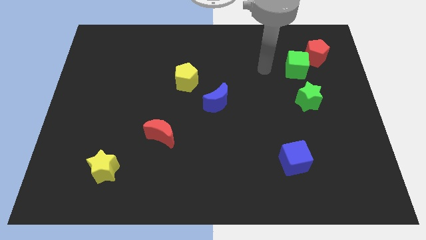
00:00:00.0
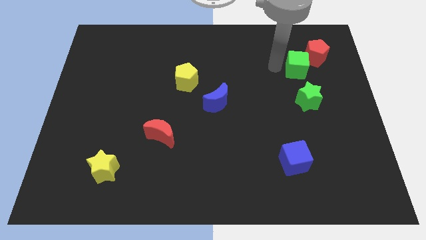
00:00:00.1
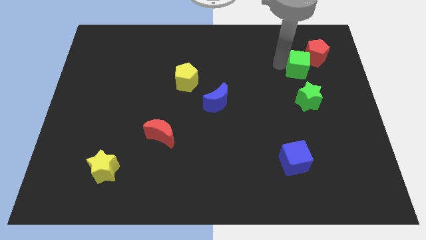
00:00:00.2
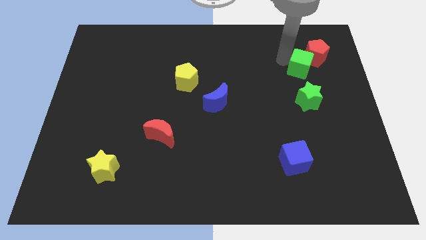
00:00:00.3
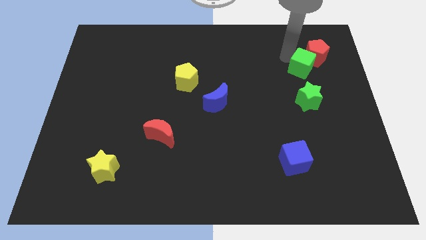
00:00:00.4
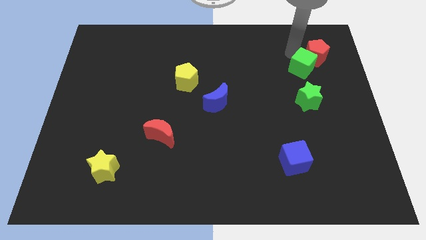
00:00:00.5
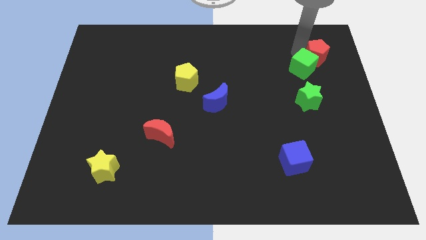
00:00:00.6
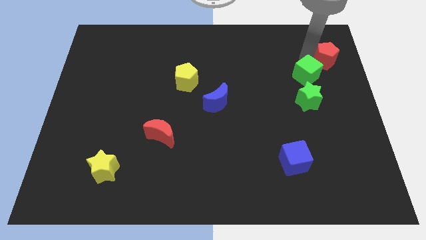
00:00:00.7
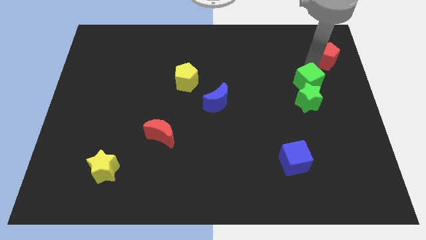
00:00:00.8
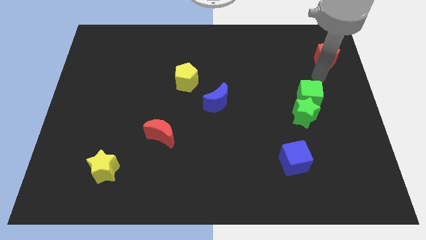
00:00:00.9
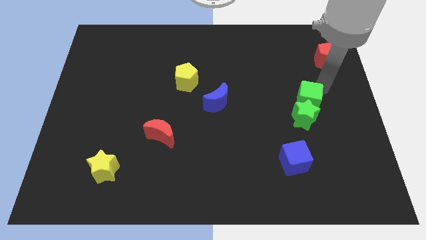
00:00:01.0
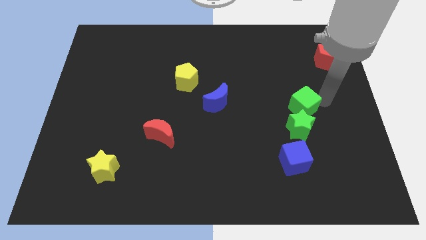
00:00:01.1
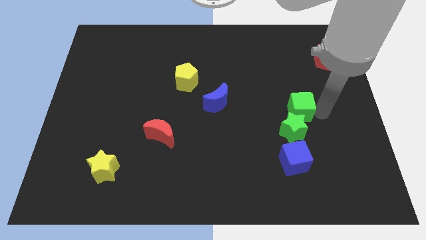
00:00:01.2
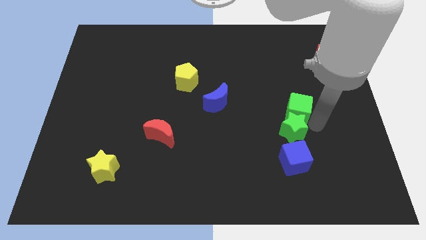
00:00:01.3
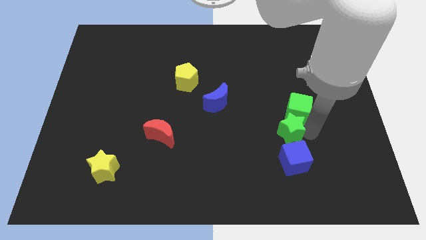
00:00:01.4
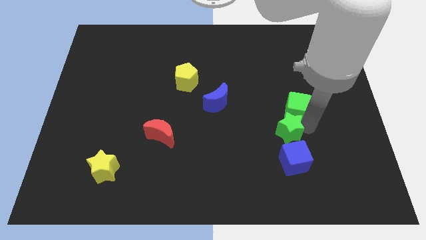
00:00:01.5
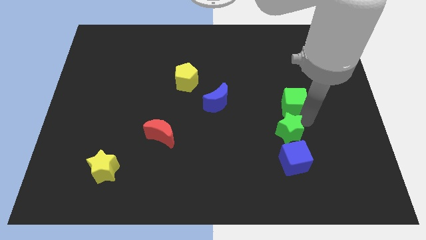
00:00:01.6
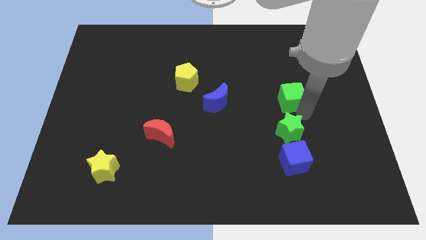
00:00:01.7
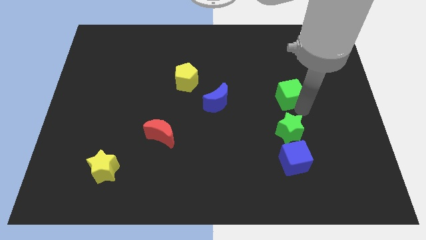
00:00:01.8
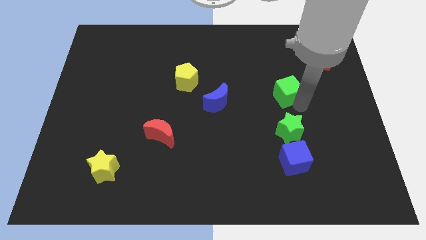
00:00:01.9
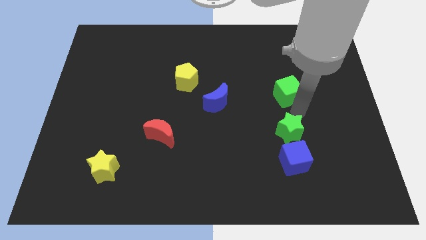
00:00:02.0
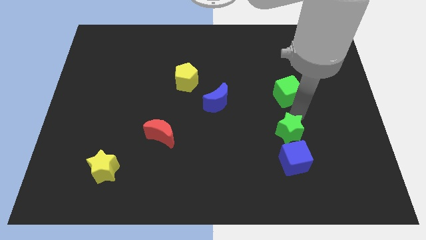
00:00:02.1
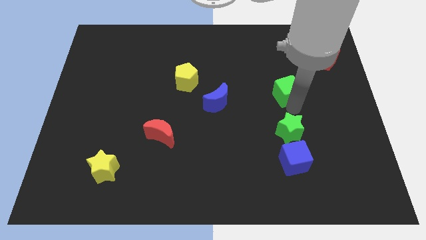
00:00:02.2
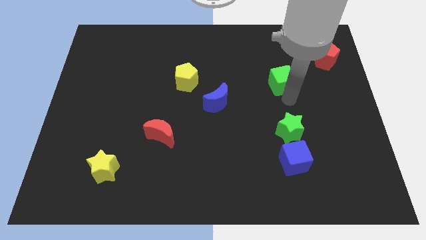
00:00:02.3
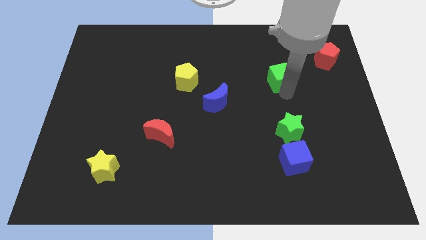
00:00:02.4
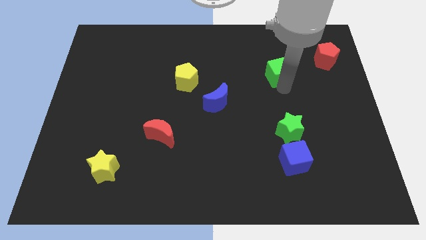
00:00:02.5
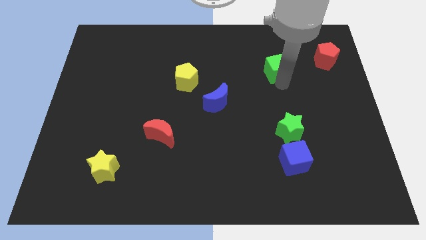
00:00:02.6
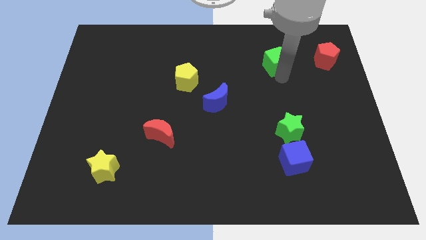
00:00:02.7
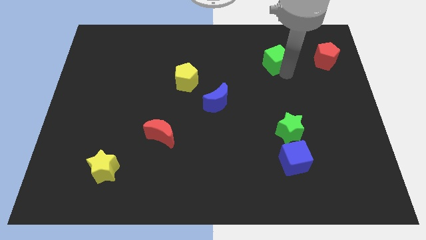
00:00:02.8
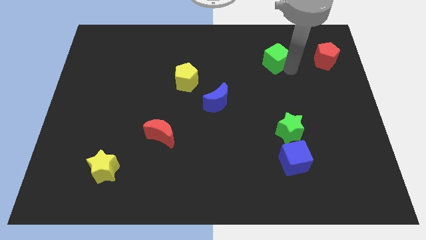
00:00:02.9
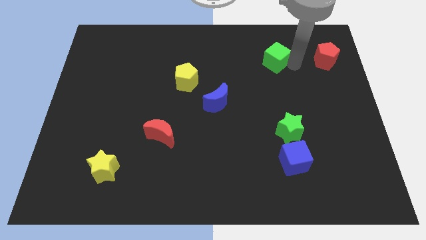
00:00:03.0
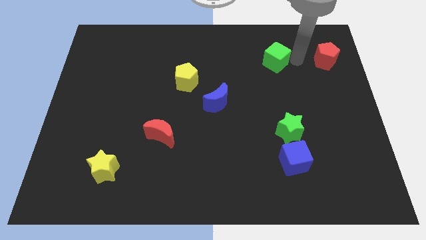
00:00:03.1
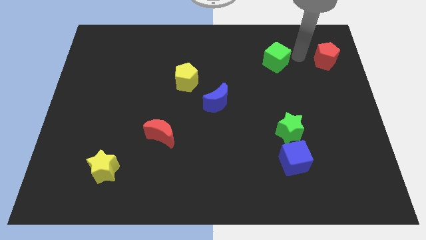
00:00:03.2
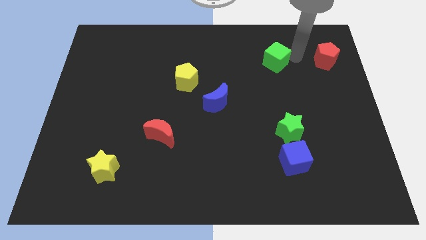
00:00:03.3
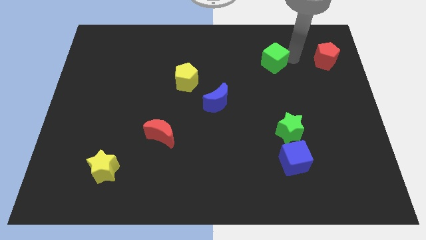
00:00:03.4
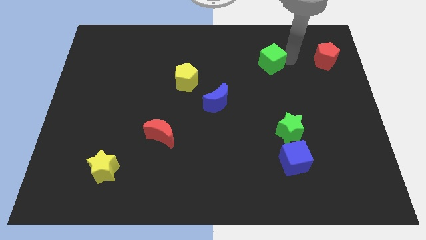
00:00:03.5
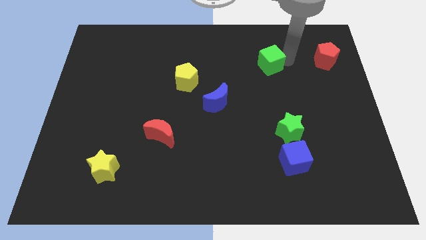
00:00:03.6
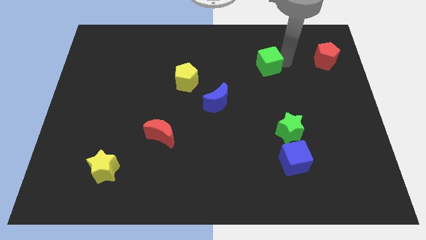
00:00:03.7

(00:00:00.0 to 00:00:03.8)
slightly slide the green cube to the left

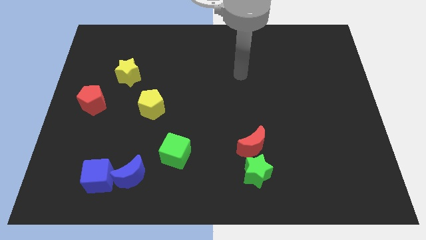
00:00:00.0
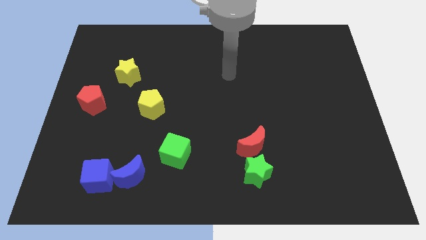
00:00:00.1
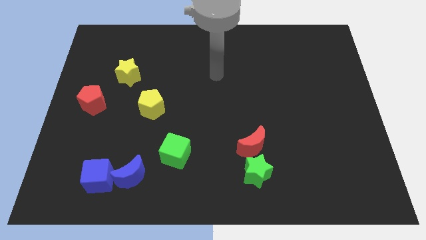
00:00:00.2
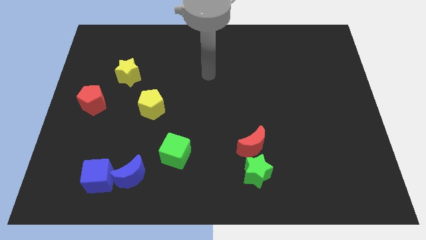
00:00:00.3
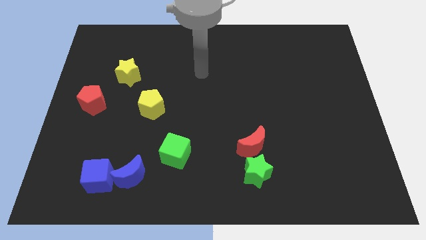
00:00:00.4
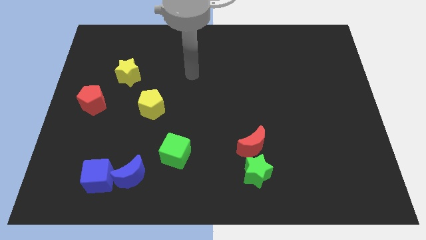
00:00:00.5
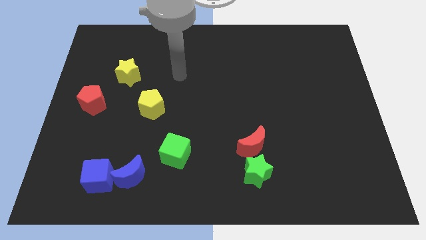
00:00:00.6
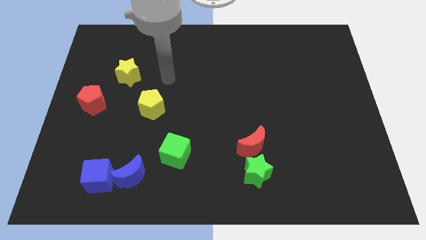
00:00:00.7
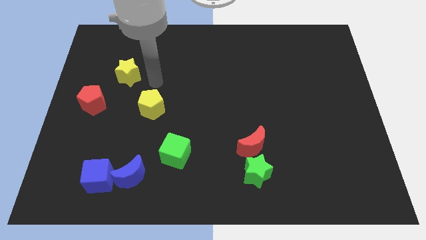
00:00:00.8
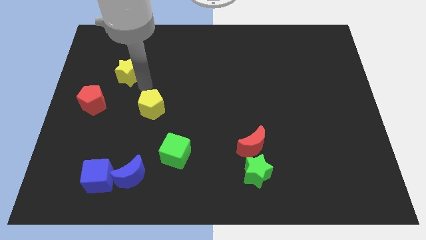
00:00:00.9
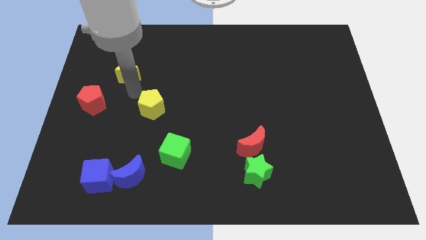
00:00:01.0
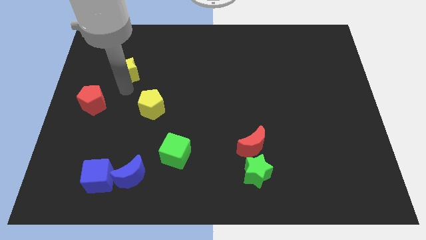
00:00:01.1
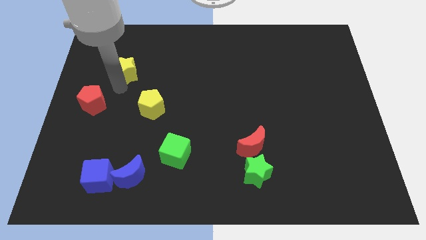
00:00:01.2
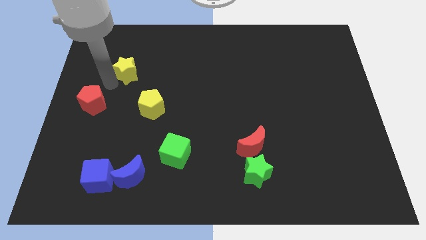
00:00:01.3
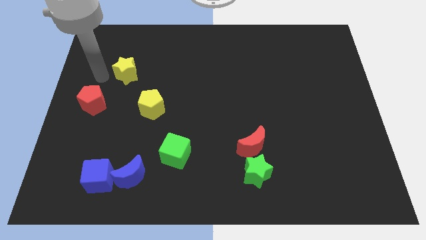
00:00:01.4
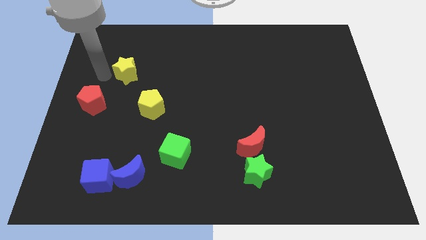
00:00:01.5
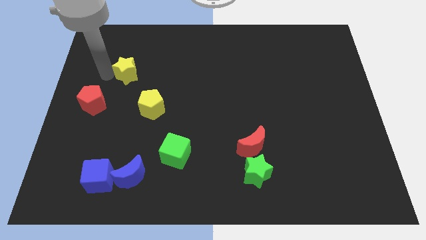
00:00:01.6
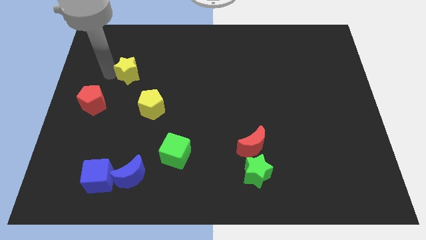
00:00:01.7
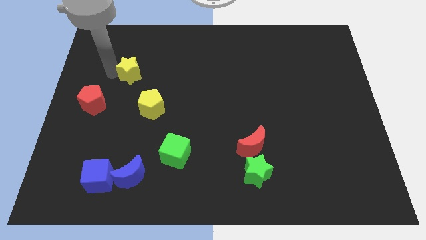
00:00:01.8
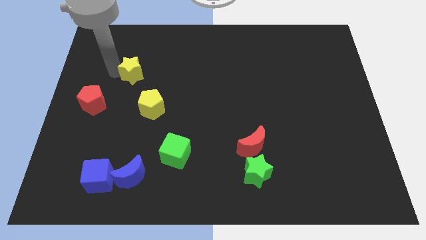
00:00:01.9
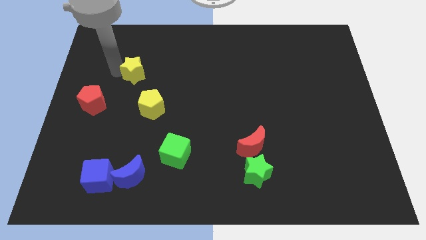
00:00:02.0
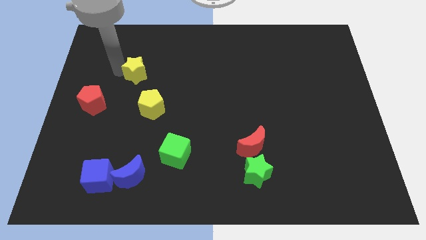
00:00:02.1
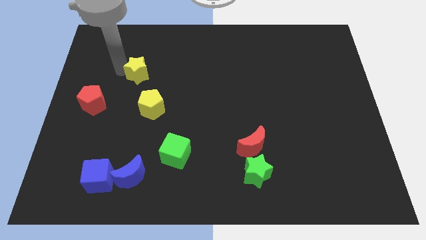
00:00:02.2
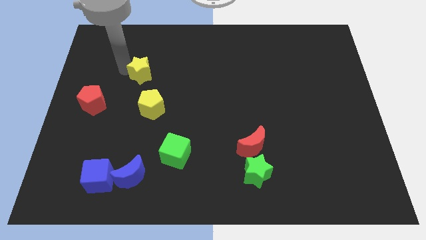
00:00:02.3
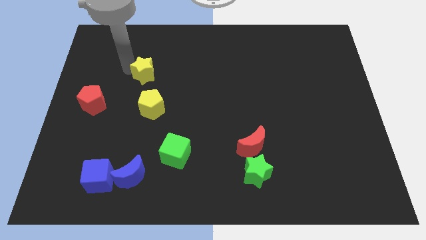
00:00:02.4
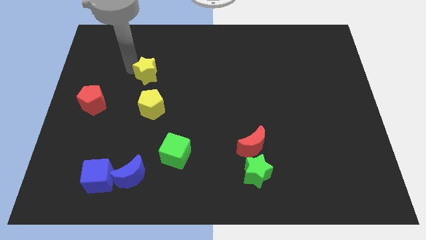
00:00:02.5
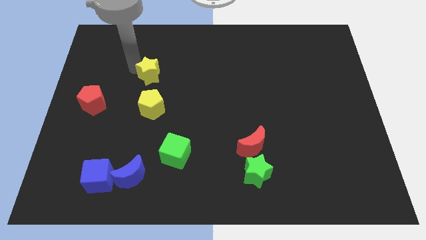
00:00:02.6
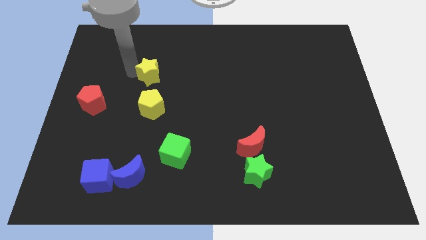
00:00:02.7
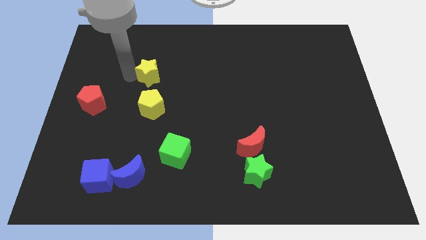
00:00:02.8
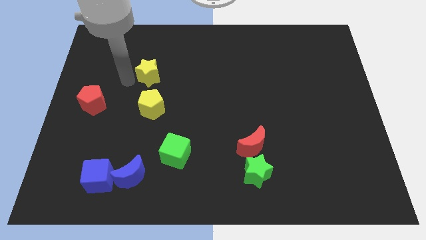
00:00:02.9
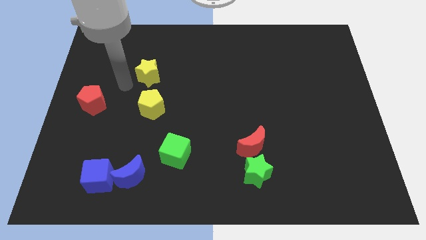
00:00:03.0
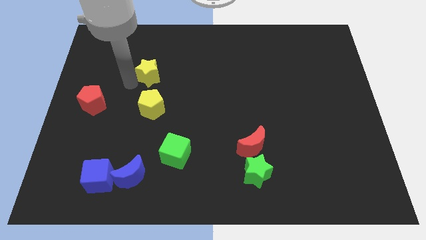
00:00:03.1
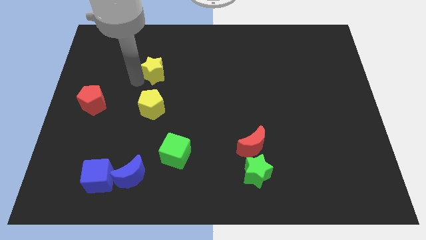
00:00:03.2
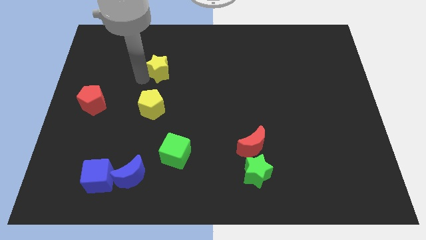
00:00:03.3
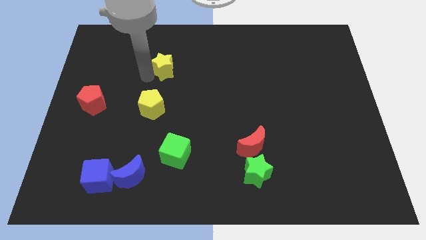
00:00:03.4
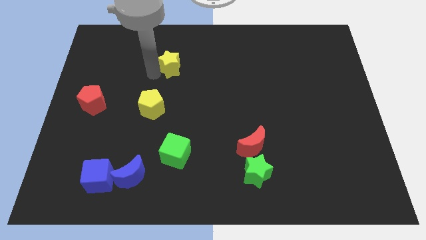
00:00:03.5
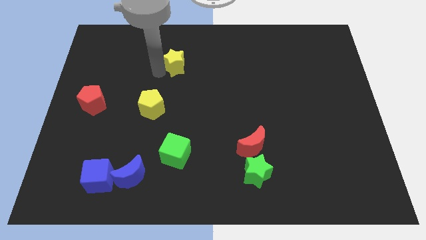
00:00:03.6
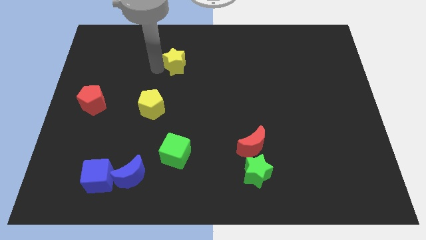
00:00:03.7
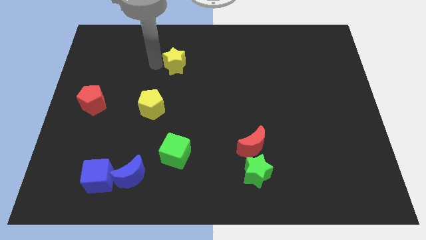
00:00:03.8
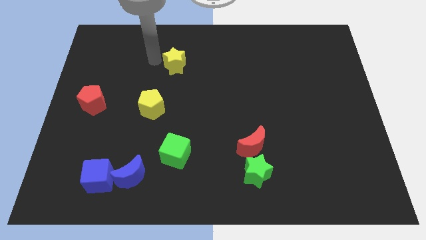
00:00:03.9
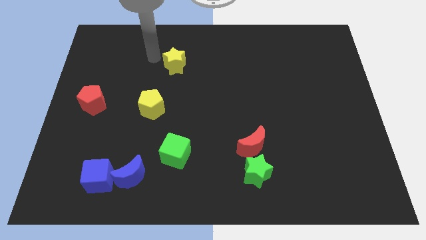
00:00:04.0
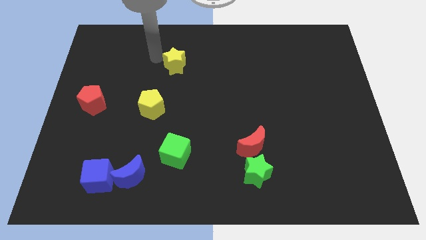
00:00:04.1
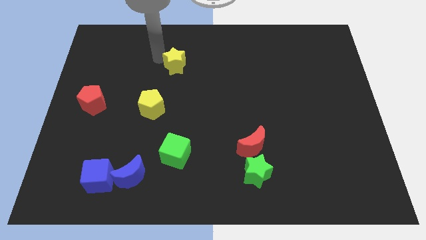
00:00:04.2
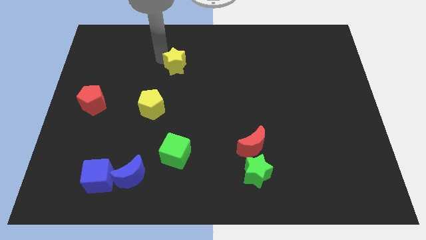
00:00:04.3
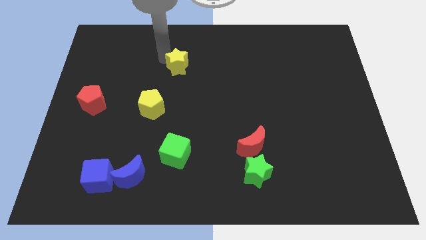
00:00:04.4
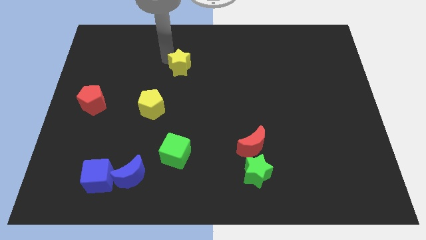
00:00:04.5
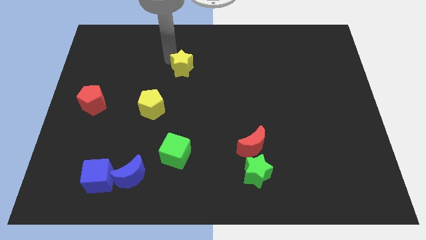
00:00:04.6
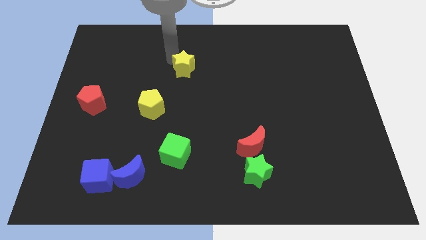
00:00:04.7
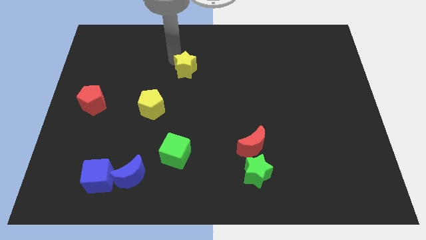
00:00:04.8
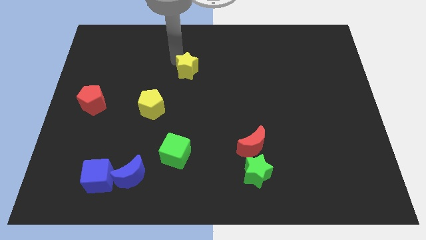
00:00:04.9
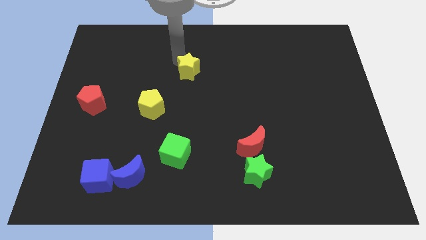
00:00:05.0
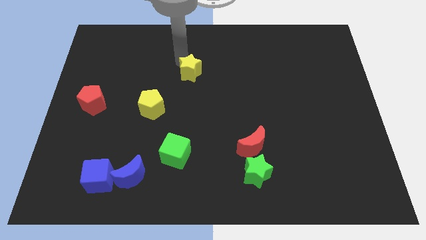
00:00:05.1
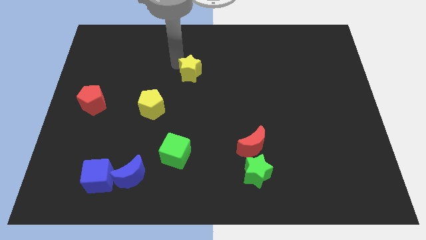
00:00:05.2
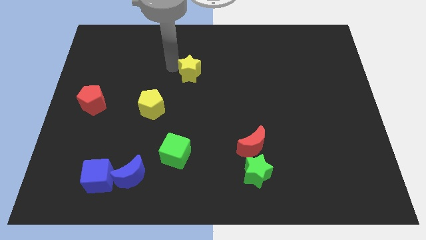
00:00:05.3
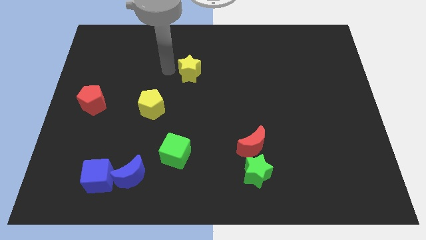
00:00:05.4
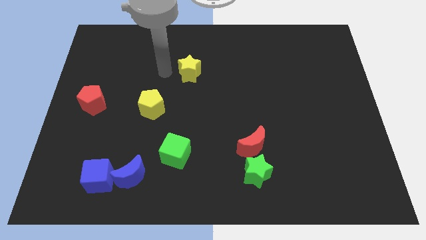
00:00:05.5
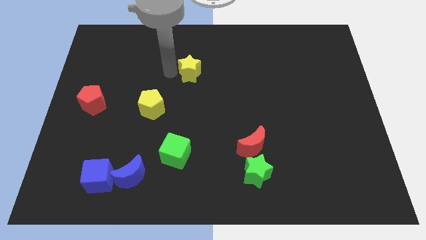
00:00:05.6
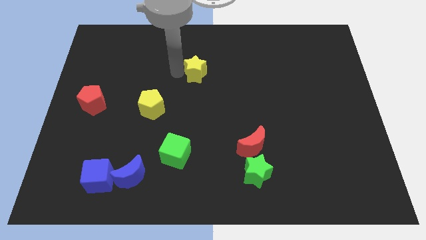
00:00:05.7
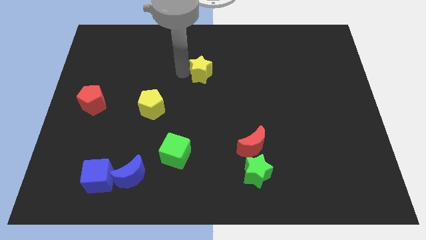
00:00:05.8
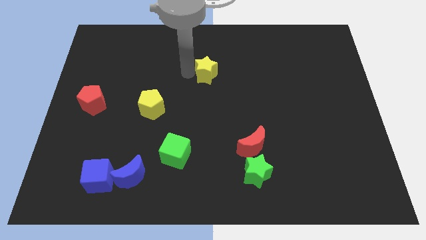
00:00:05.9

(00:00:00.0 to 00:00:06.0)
move the yellow star right
